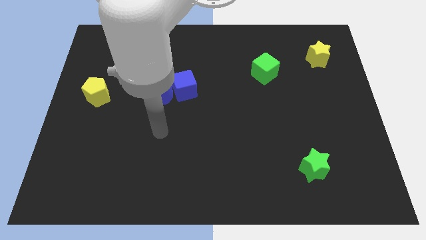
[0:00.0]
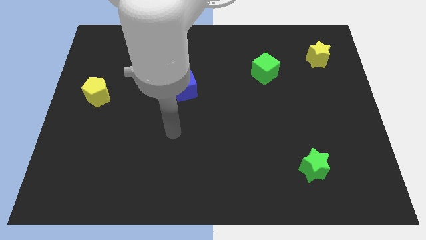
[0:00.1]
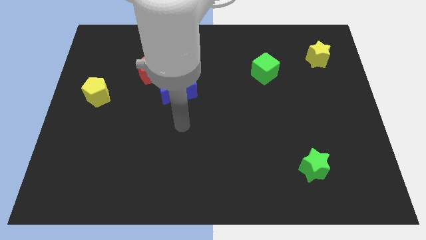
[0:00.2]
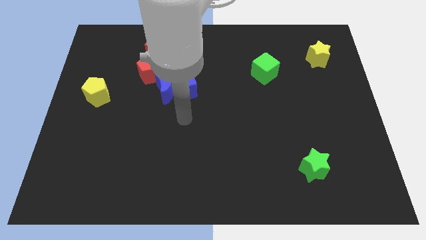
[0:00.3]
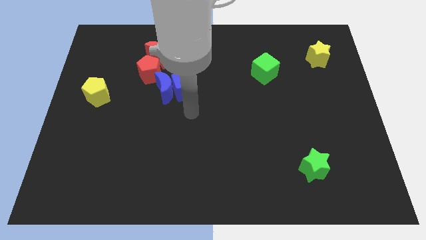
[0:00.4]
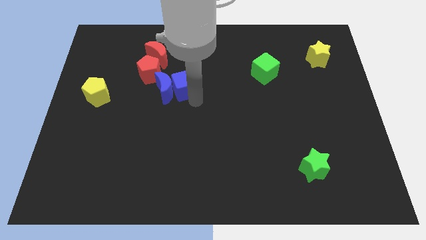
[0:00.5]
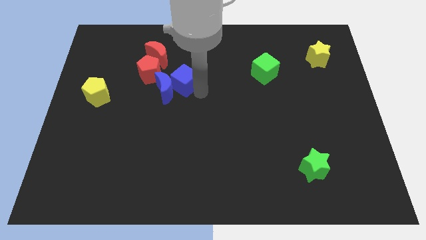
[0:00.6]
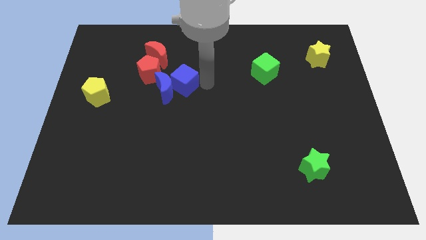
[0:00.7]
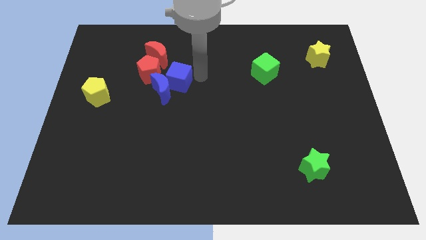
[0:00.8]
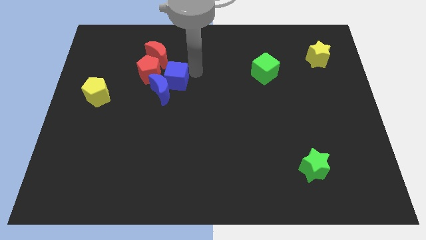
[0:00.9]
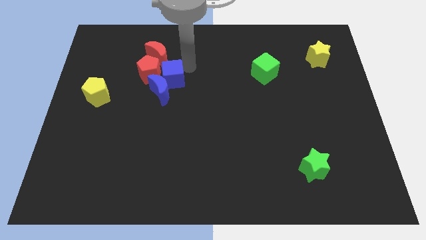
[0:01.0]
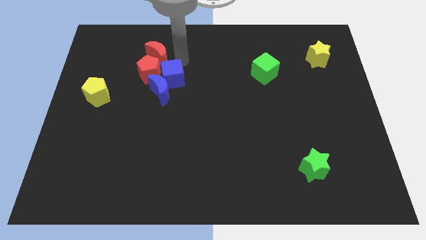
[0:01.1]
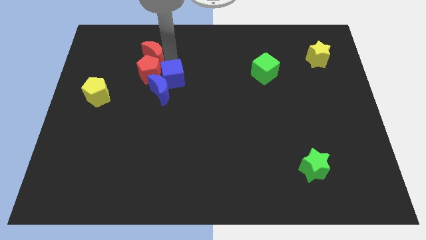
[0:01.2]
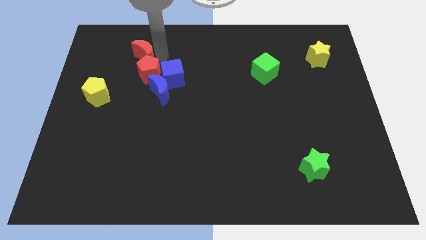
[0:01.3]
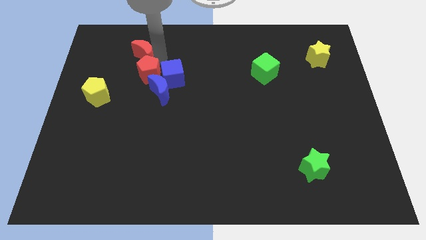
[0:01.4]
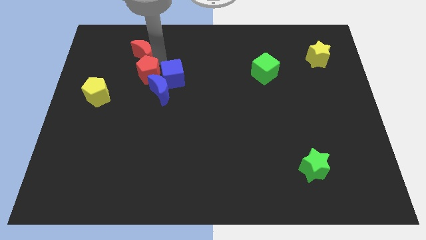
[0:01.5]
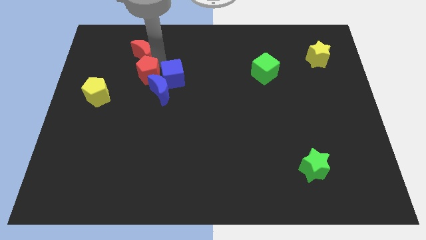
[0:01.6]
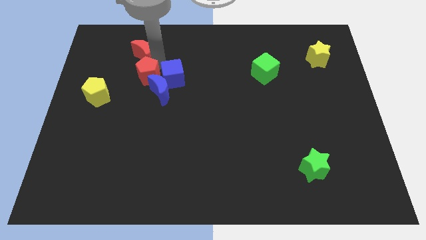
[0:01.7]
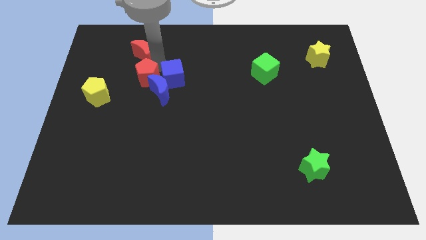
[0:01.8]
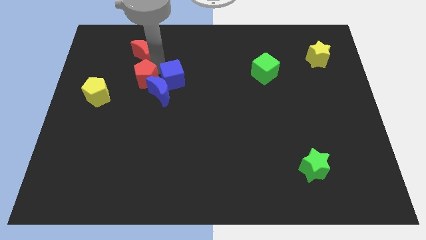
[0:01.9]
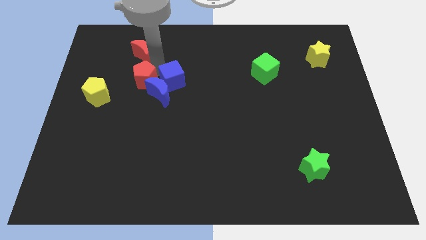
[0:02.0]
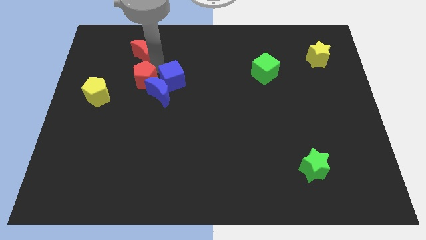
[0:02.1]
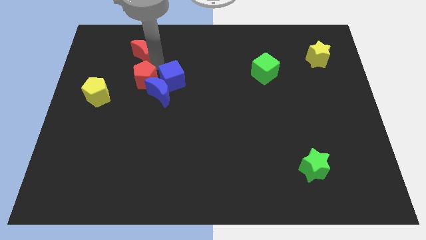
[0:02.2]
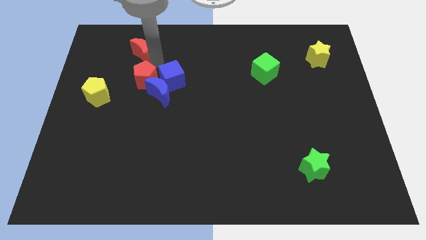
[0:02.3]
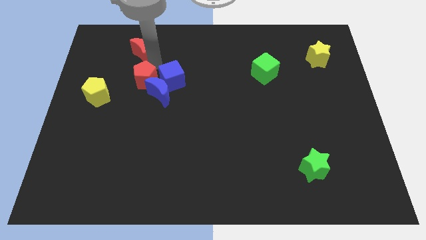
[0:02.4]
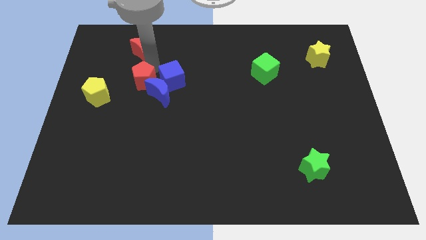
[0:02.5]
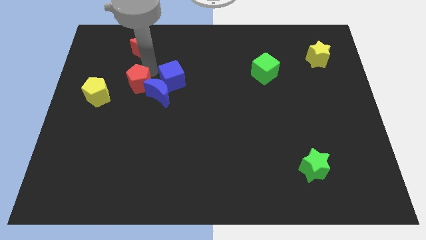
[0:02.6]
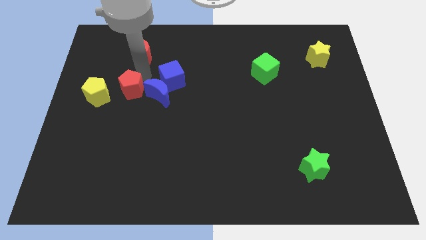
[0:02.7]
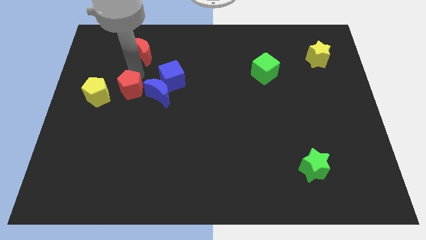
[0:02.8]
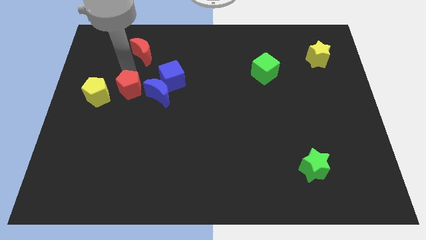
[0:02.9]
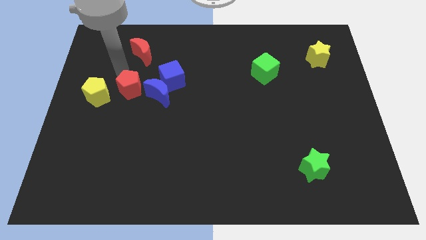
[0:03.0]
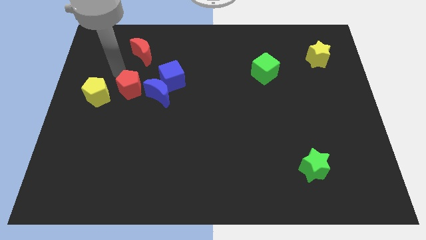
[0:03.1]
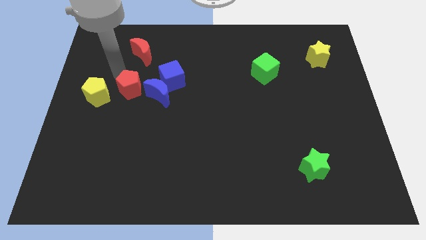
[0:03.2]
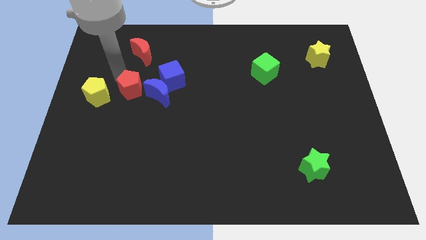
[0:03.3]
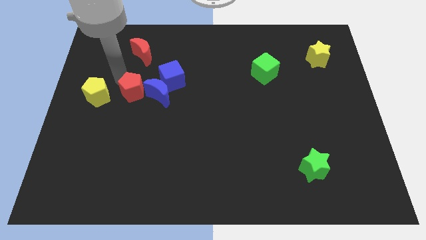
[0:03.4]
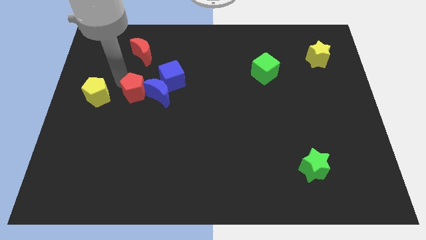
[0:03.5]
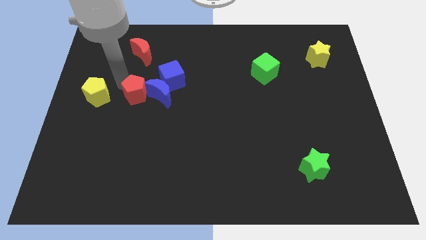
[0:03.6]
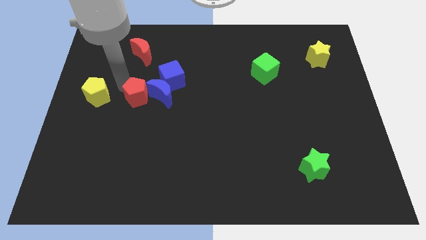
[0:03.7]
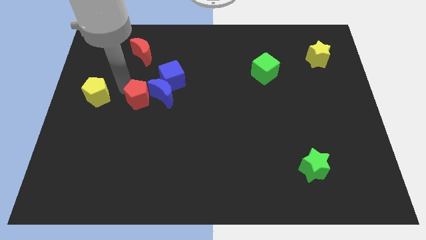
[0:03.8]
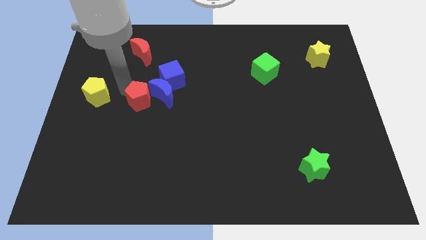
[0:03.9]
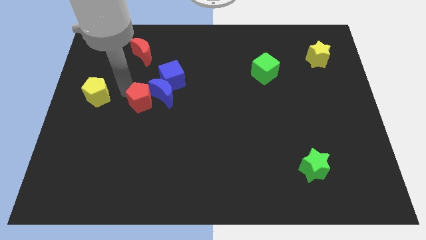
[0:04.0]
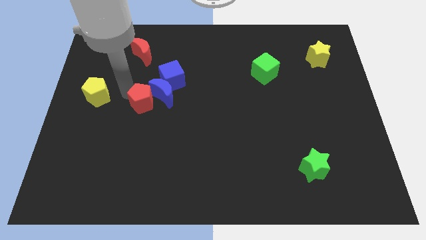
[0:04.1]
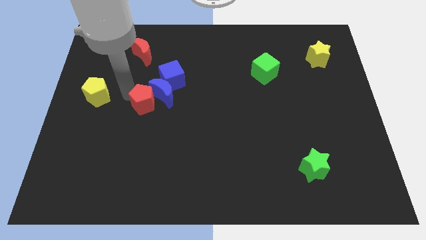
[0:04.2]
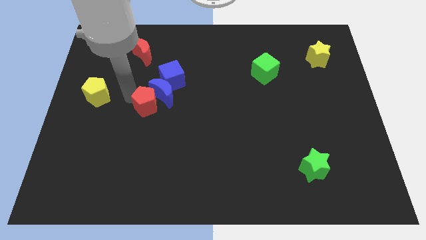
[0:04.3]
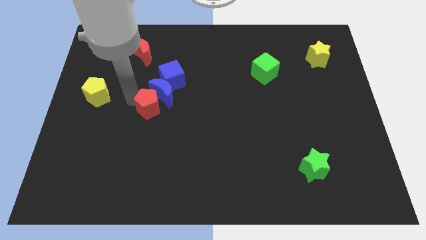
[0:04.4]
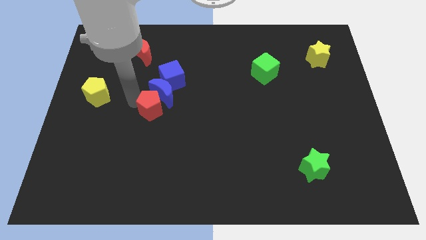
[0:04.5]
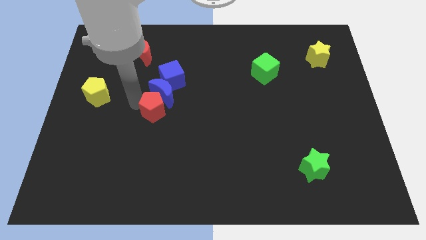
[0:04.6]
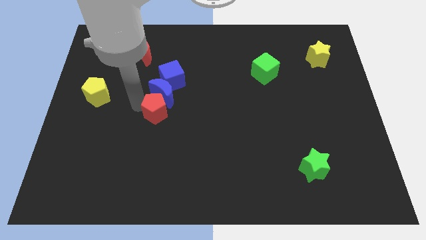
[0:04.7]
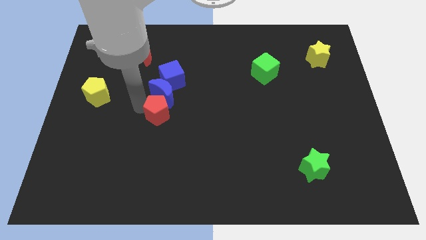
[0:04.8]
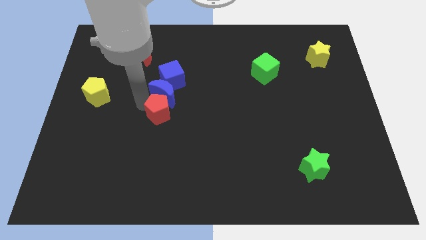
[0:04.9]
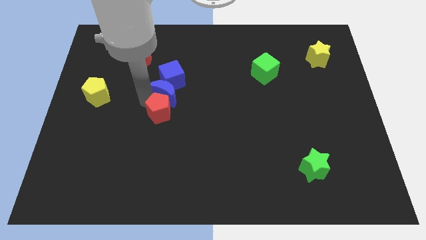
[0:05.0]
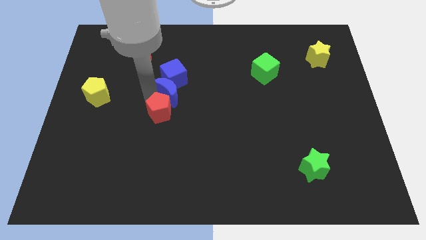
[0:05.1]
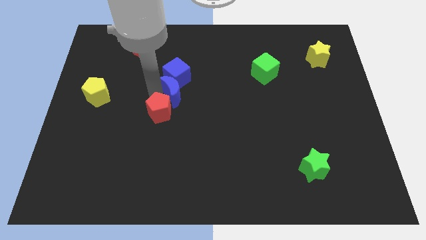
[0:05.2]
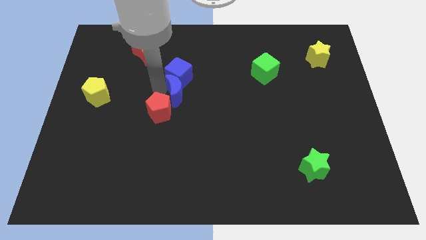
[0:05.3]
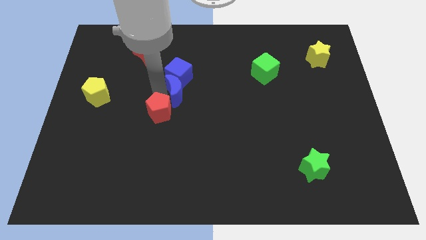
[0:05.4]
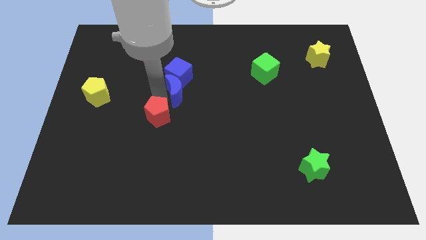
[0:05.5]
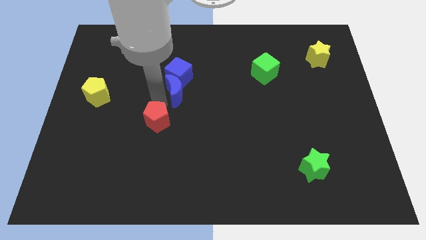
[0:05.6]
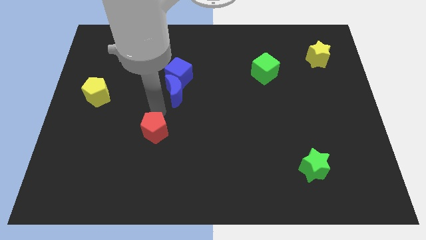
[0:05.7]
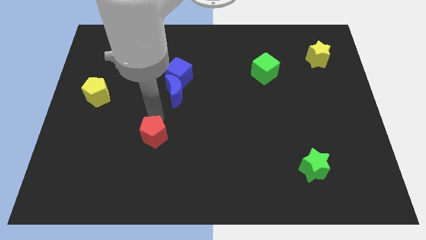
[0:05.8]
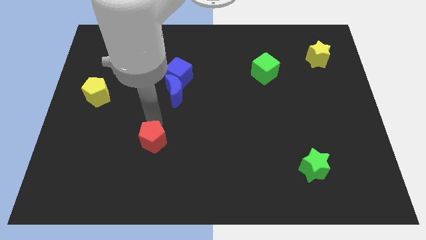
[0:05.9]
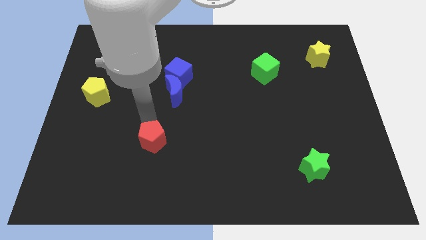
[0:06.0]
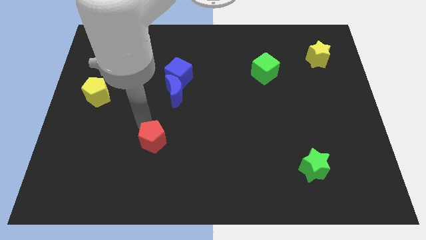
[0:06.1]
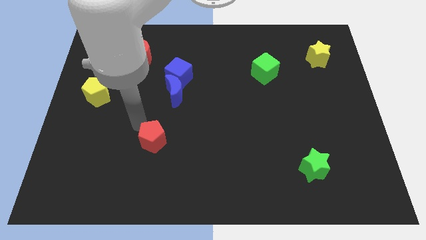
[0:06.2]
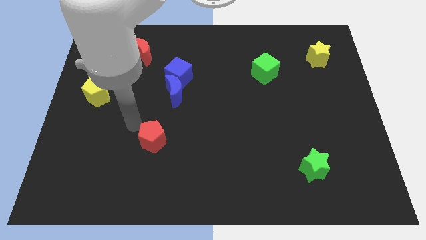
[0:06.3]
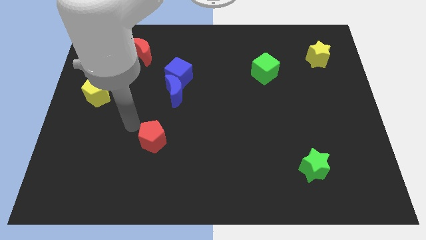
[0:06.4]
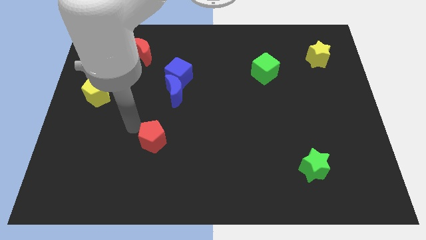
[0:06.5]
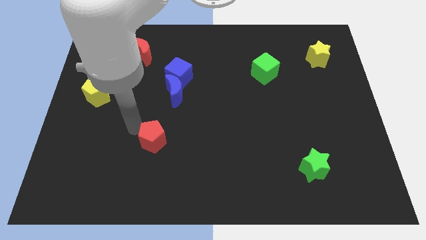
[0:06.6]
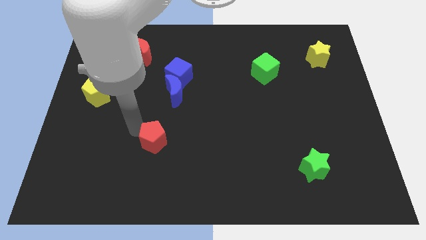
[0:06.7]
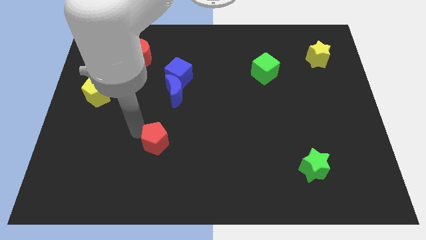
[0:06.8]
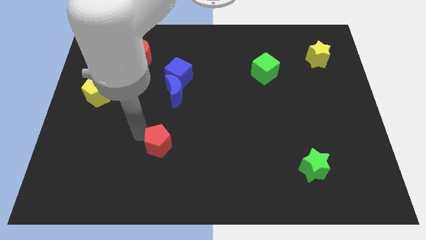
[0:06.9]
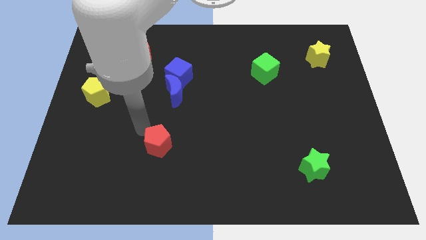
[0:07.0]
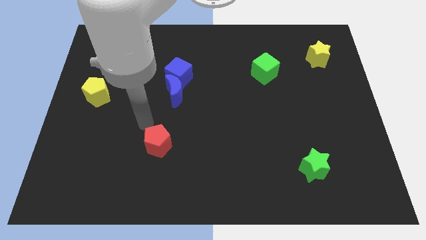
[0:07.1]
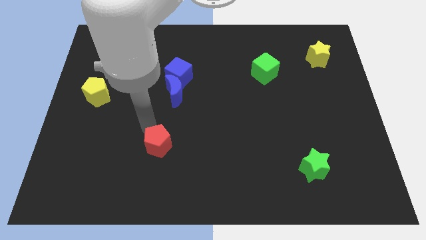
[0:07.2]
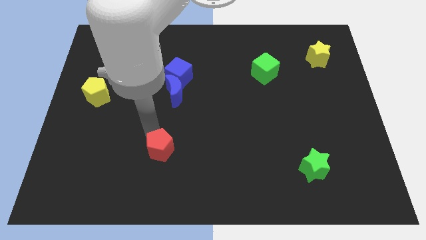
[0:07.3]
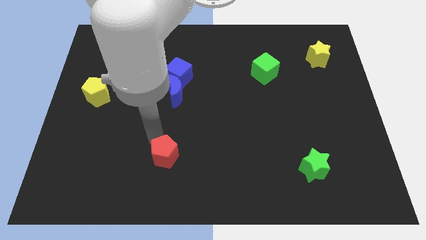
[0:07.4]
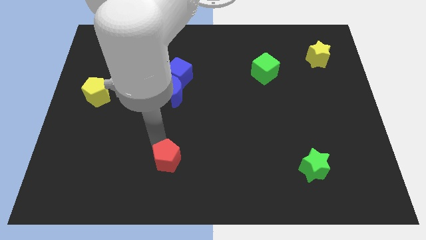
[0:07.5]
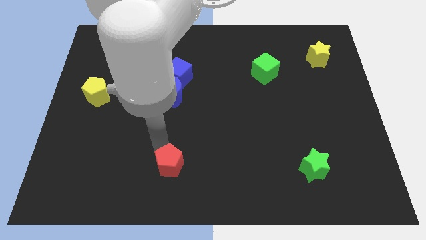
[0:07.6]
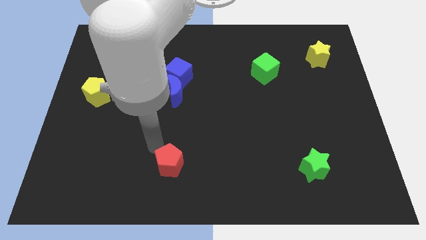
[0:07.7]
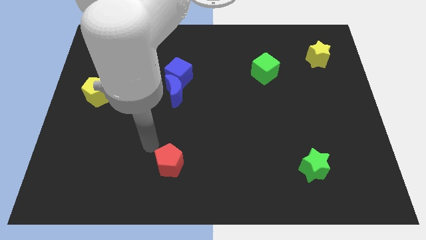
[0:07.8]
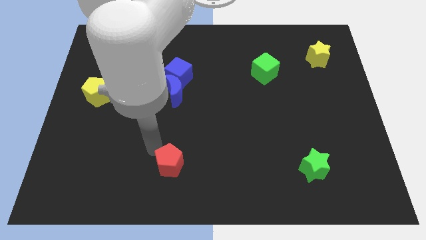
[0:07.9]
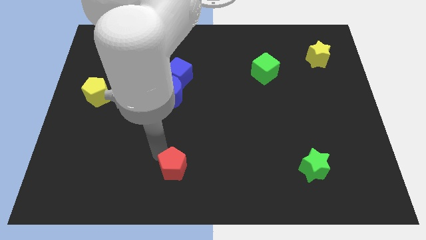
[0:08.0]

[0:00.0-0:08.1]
move the red pentagon to the bottom side
